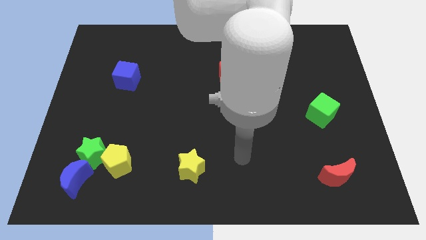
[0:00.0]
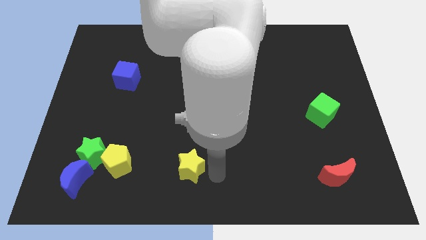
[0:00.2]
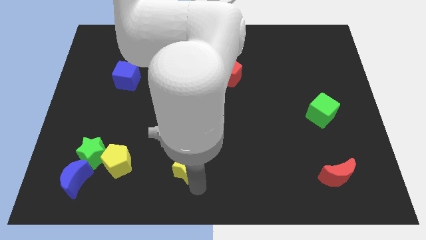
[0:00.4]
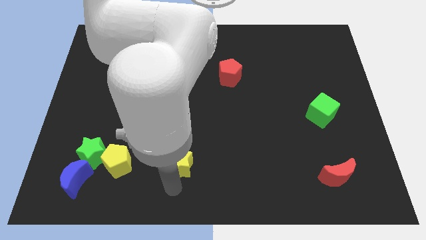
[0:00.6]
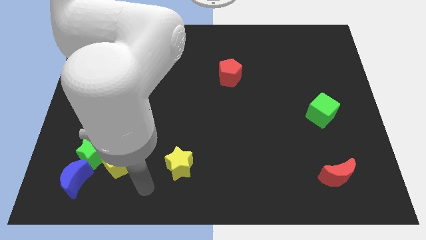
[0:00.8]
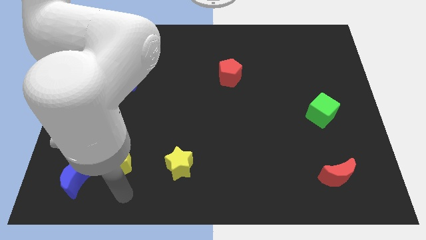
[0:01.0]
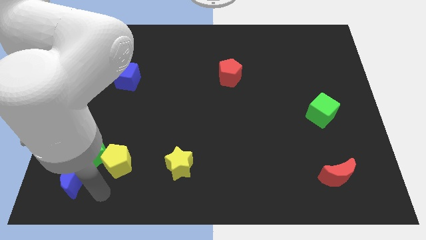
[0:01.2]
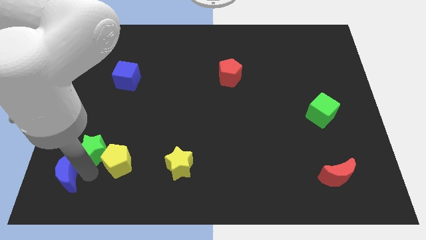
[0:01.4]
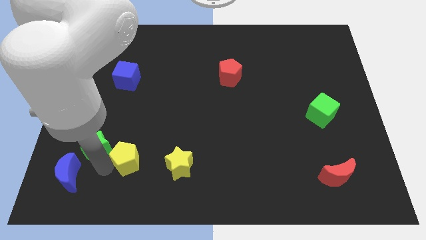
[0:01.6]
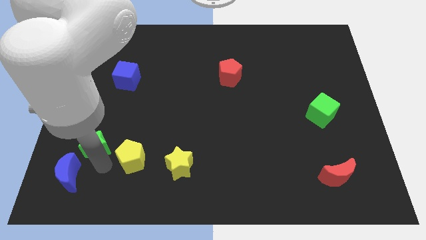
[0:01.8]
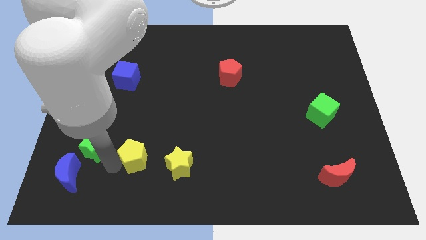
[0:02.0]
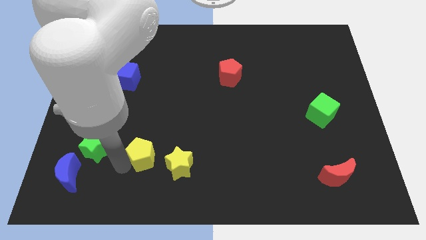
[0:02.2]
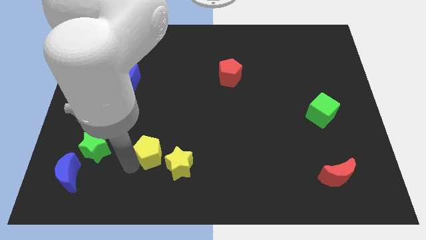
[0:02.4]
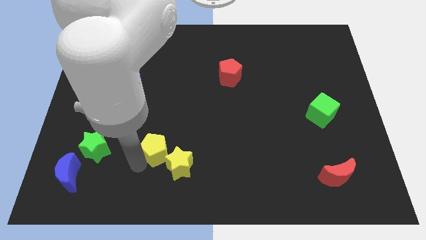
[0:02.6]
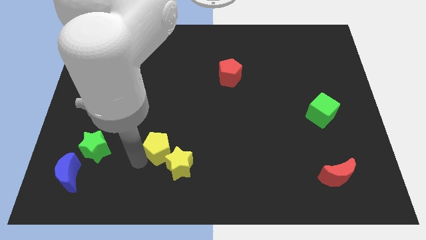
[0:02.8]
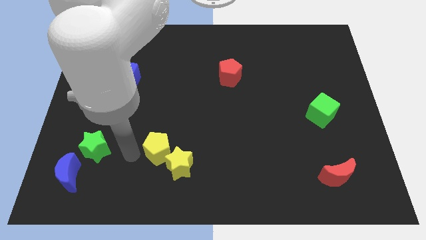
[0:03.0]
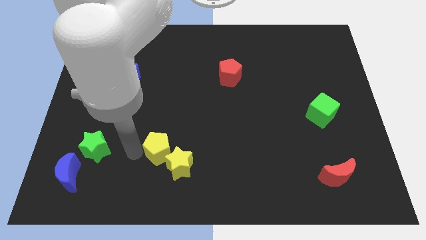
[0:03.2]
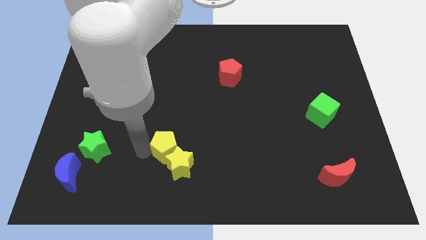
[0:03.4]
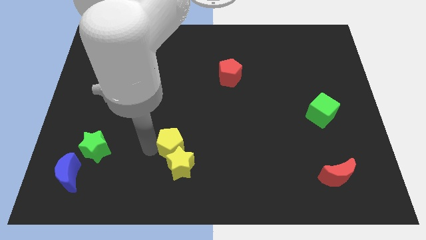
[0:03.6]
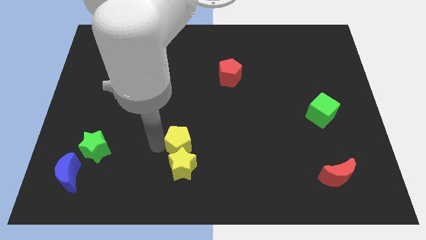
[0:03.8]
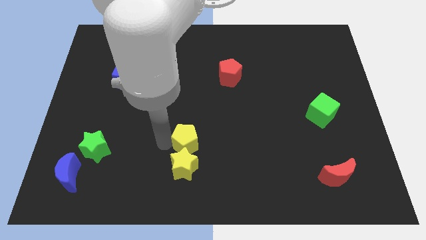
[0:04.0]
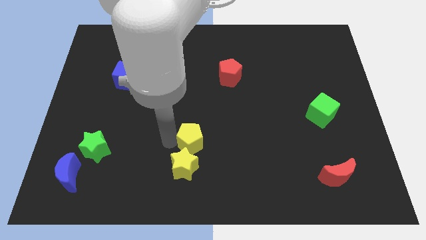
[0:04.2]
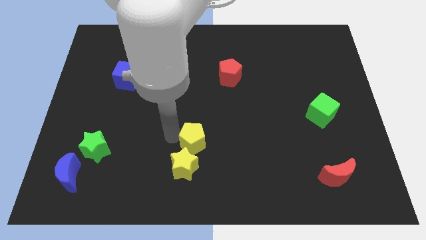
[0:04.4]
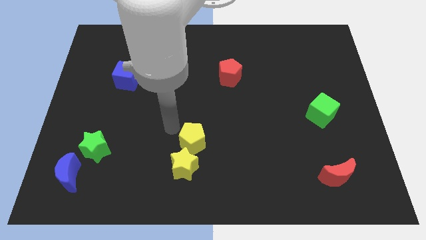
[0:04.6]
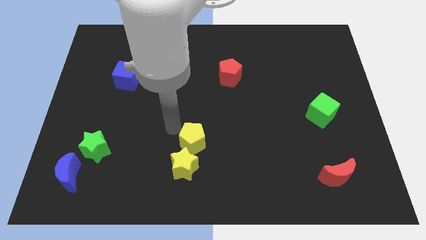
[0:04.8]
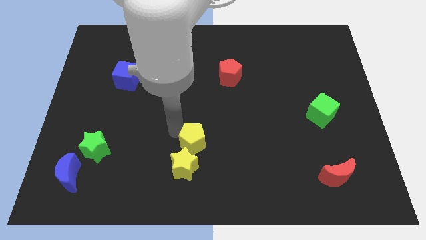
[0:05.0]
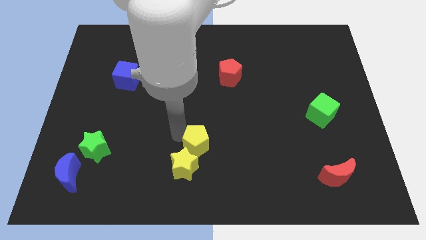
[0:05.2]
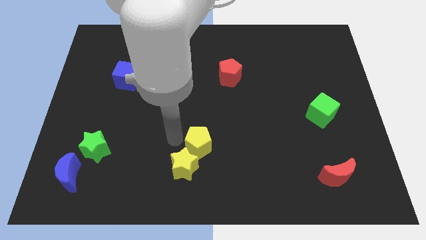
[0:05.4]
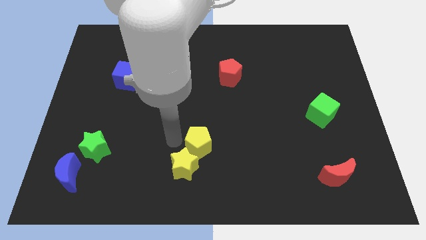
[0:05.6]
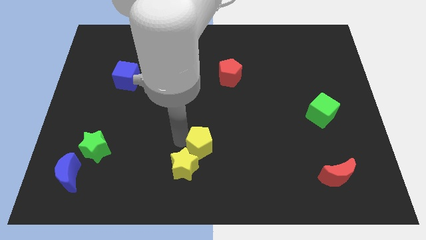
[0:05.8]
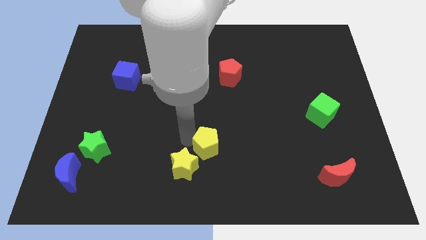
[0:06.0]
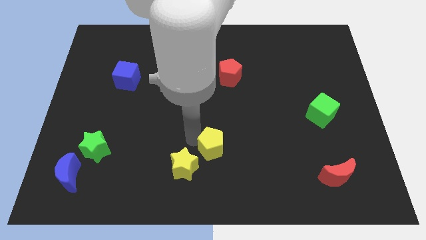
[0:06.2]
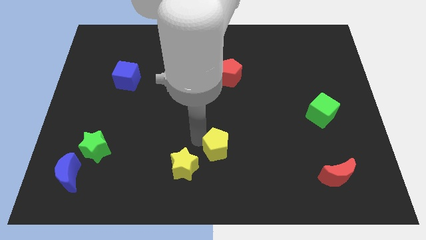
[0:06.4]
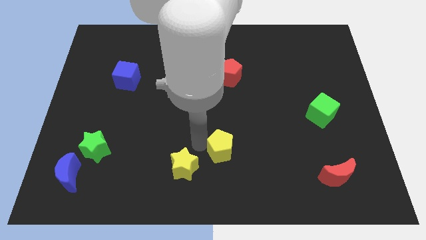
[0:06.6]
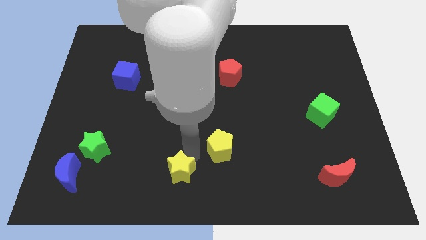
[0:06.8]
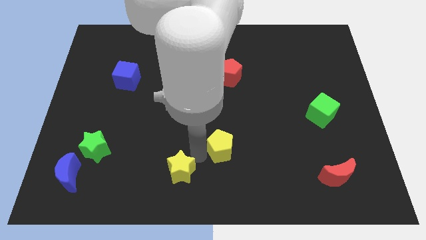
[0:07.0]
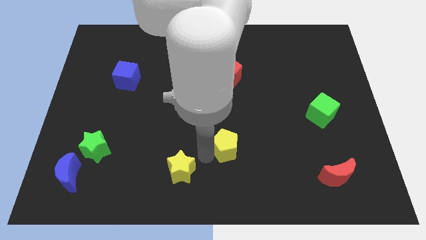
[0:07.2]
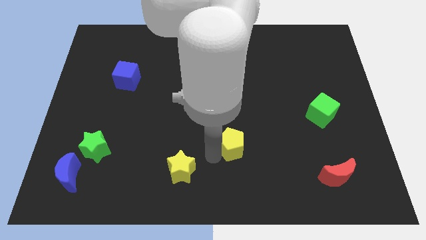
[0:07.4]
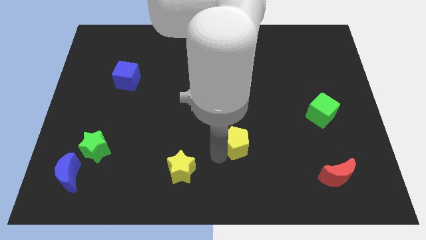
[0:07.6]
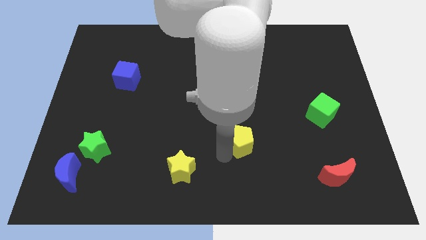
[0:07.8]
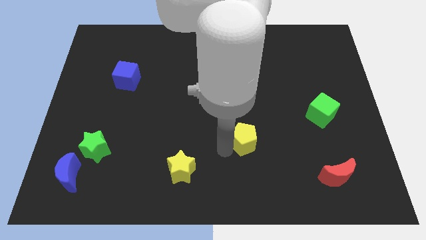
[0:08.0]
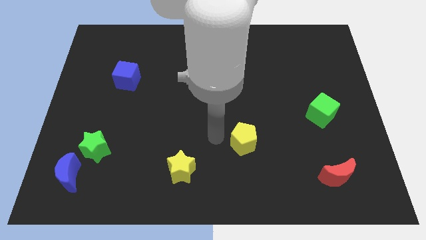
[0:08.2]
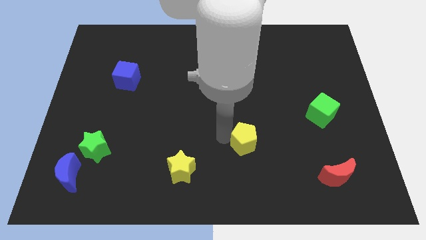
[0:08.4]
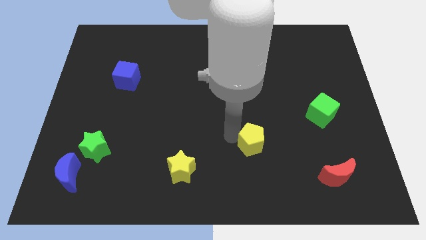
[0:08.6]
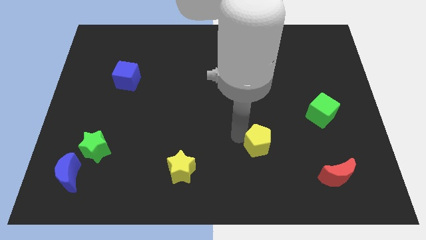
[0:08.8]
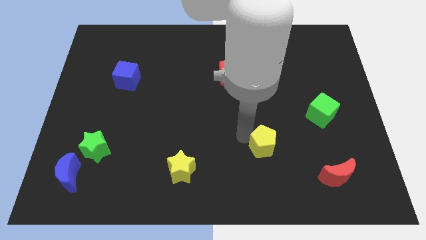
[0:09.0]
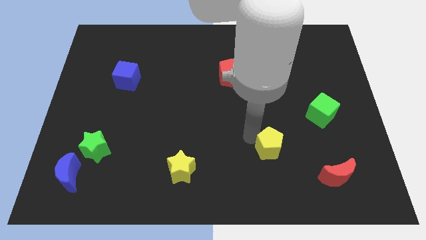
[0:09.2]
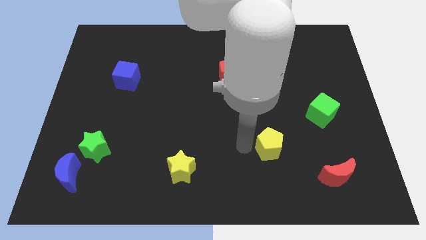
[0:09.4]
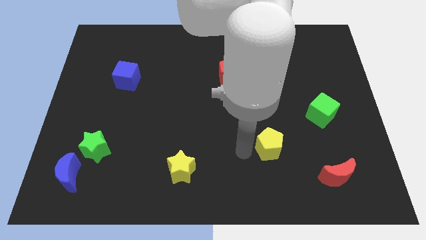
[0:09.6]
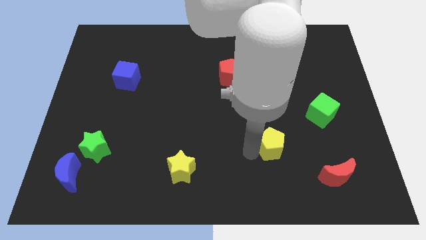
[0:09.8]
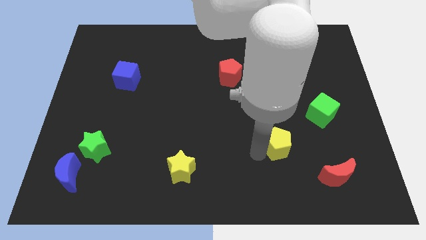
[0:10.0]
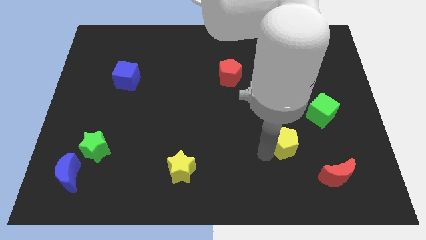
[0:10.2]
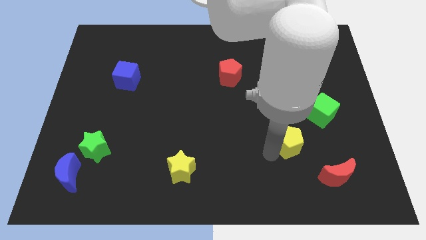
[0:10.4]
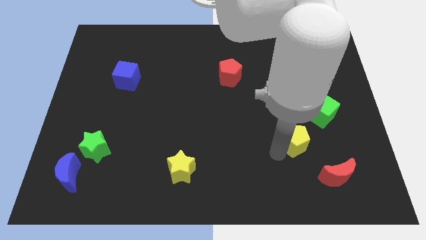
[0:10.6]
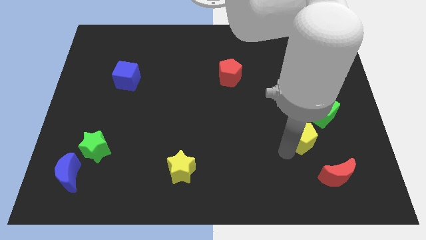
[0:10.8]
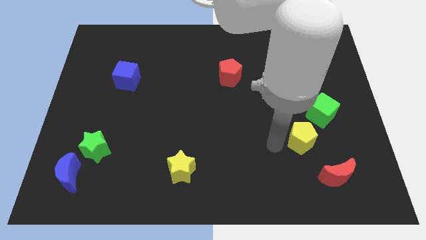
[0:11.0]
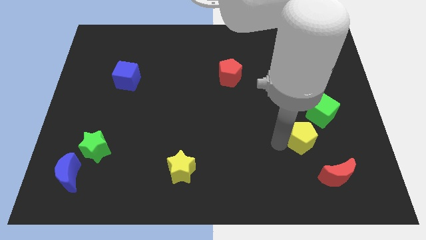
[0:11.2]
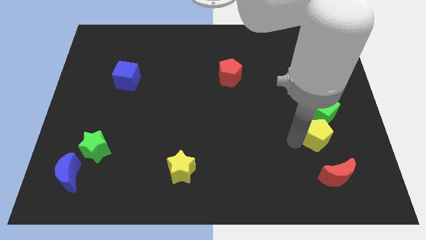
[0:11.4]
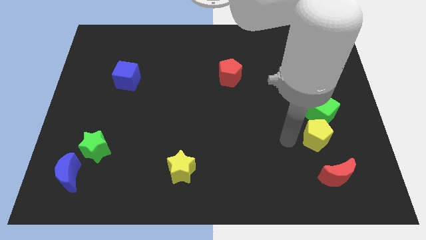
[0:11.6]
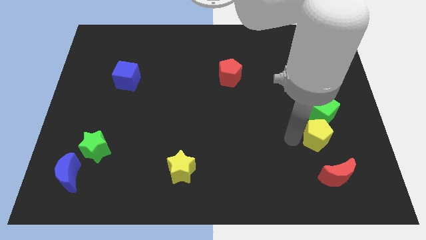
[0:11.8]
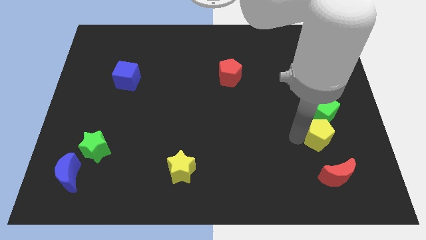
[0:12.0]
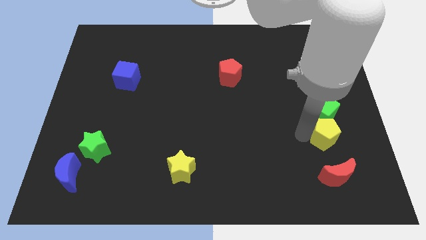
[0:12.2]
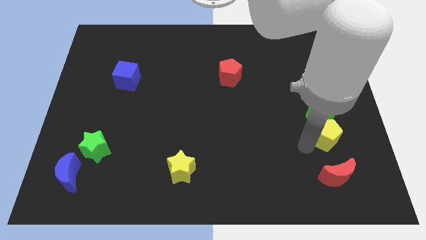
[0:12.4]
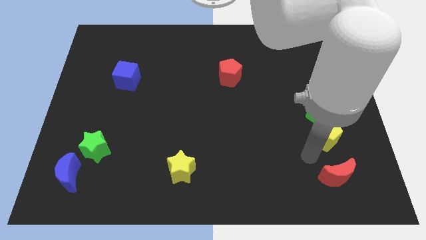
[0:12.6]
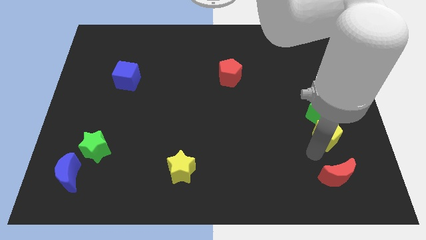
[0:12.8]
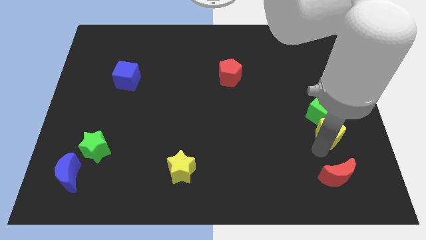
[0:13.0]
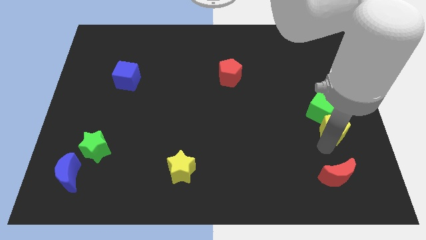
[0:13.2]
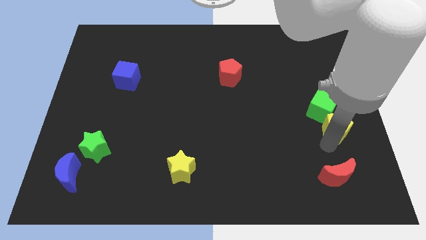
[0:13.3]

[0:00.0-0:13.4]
put the yellow pentagon to the right side of the board

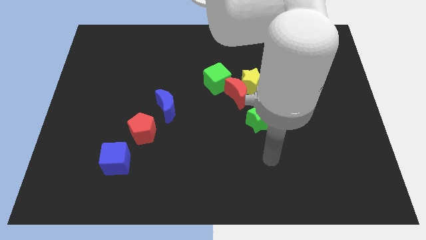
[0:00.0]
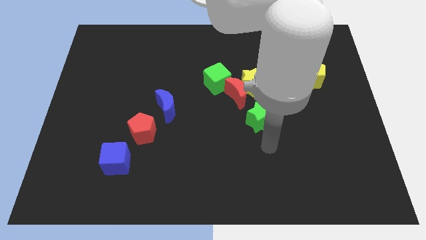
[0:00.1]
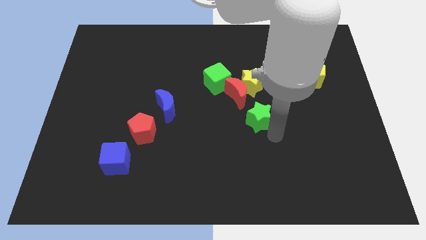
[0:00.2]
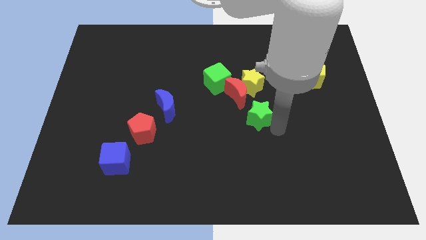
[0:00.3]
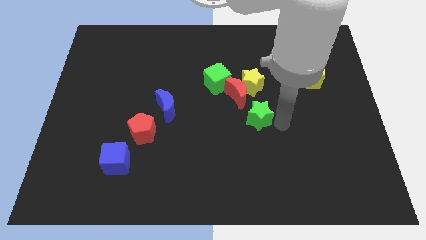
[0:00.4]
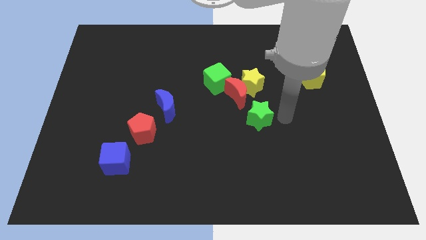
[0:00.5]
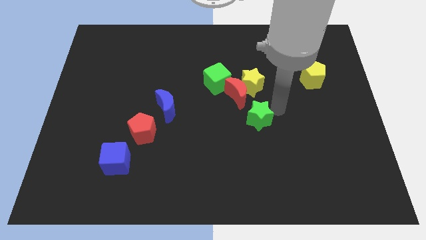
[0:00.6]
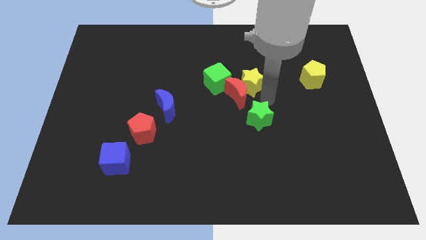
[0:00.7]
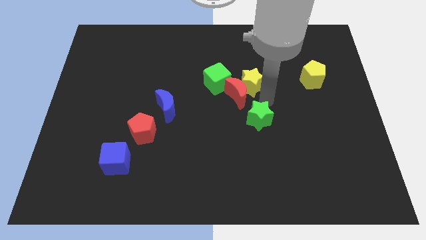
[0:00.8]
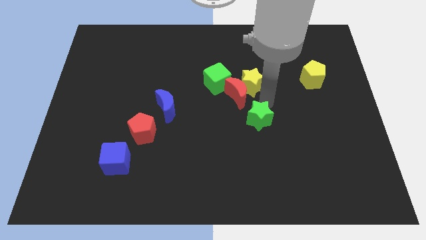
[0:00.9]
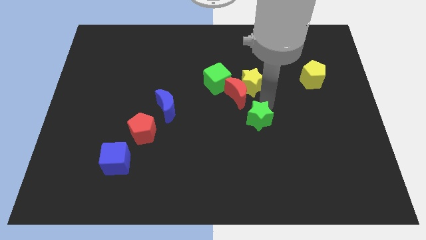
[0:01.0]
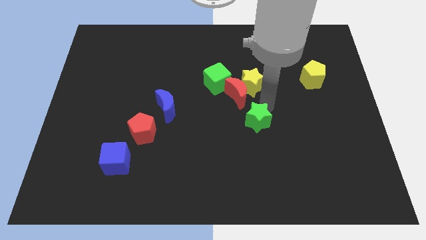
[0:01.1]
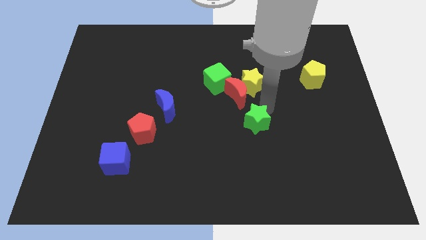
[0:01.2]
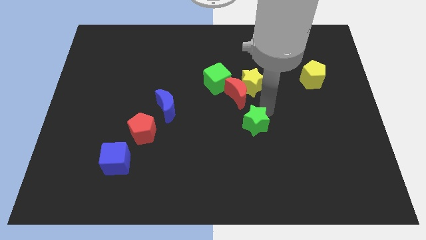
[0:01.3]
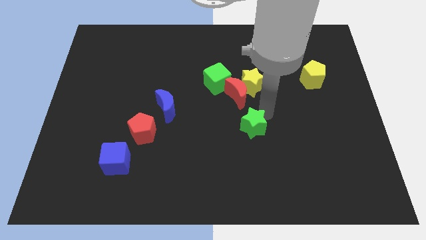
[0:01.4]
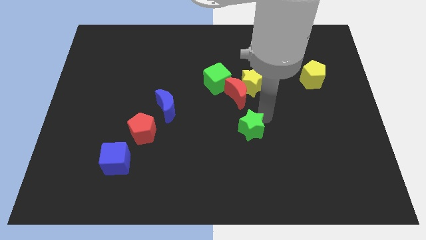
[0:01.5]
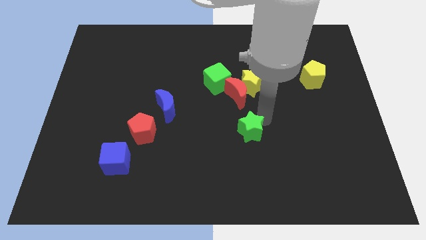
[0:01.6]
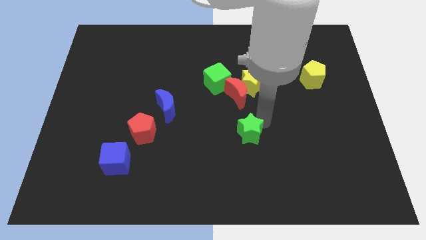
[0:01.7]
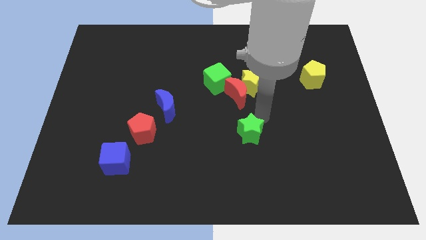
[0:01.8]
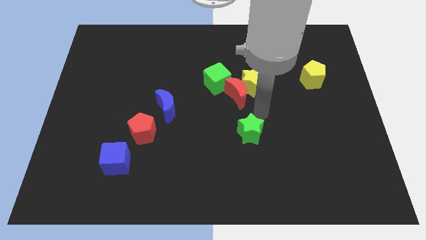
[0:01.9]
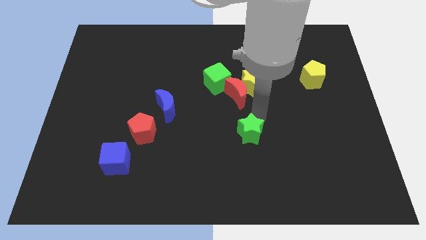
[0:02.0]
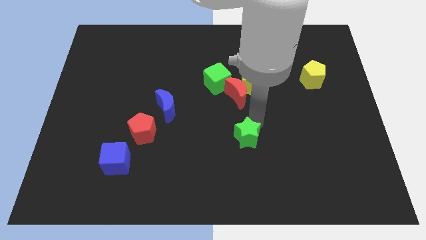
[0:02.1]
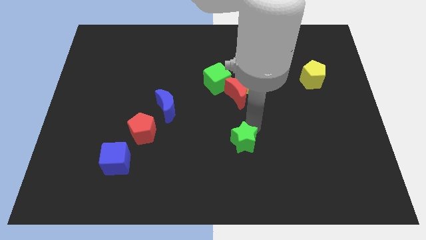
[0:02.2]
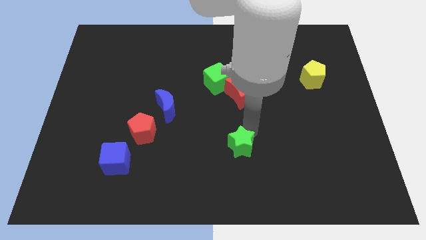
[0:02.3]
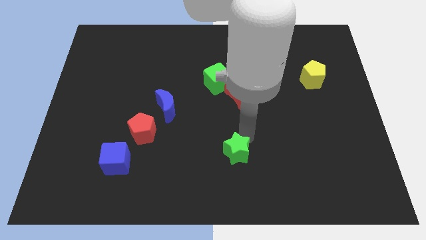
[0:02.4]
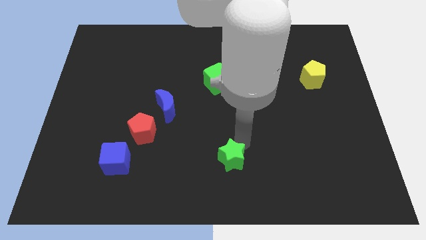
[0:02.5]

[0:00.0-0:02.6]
put the green star to the bottom
